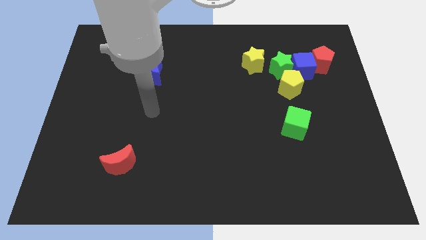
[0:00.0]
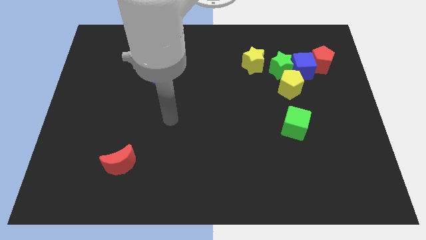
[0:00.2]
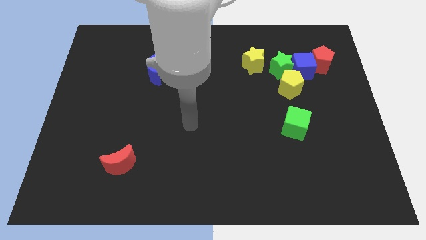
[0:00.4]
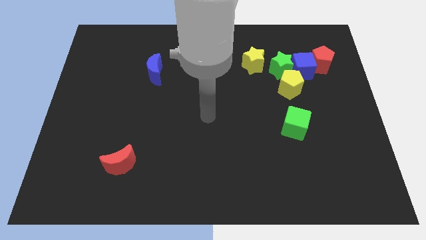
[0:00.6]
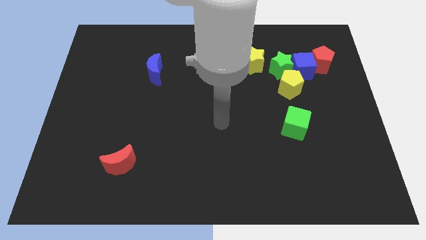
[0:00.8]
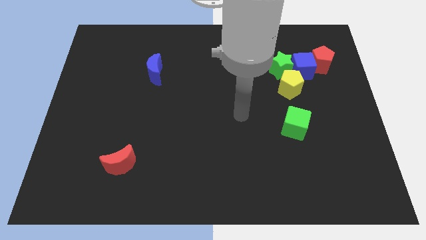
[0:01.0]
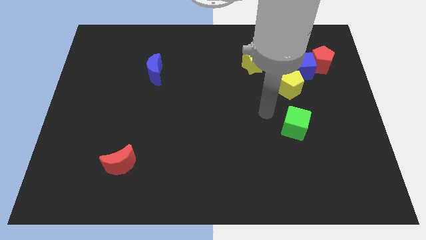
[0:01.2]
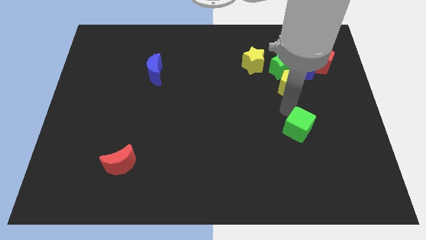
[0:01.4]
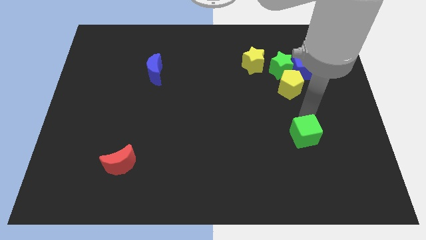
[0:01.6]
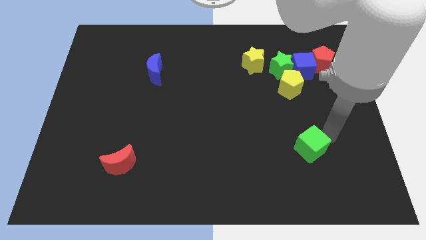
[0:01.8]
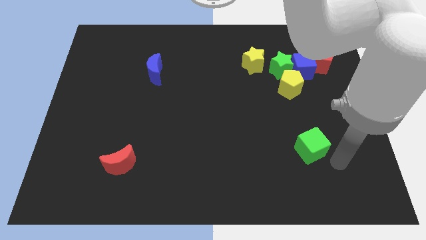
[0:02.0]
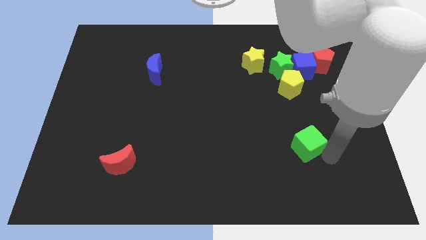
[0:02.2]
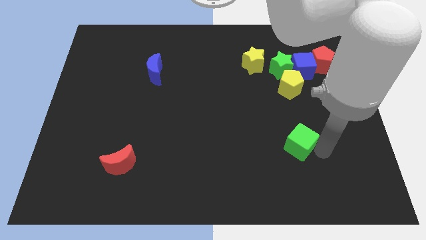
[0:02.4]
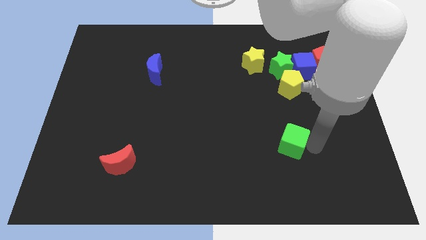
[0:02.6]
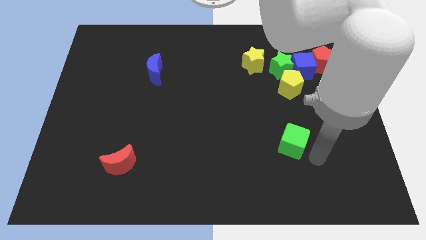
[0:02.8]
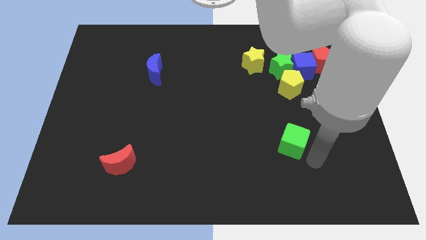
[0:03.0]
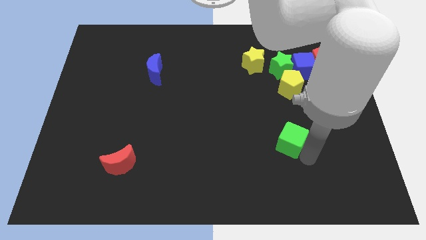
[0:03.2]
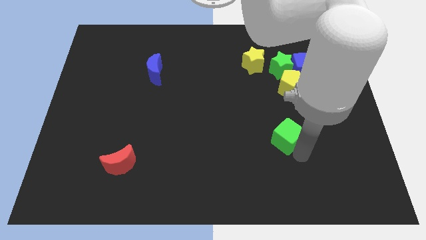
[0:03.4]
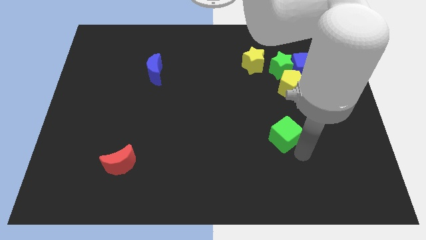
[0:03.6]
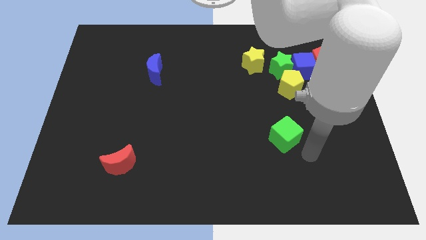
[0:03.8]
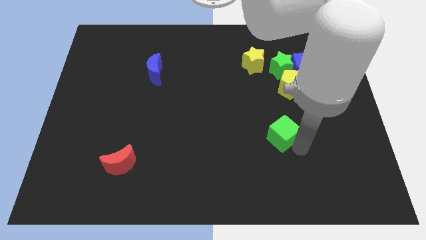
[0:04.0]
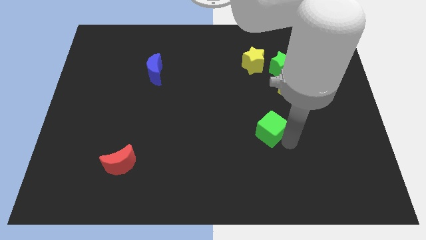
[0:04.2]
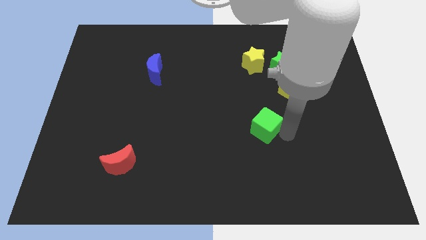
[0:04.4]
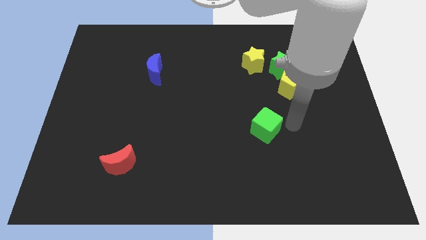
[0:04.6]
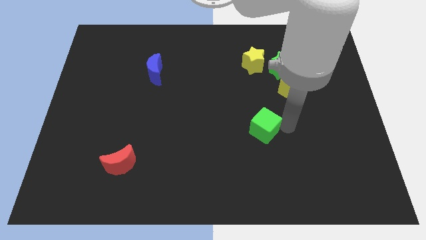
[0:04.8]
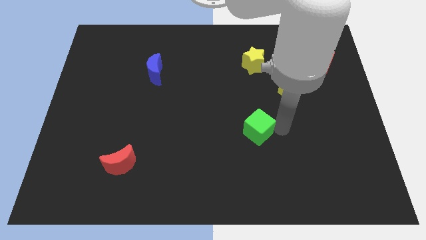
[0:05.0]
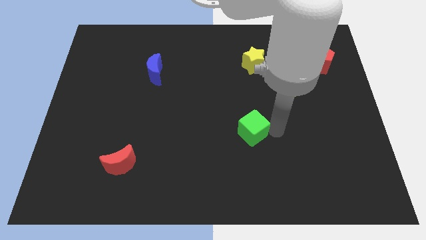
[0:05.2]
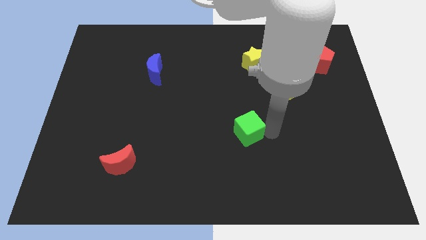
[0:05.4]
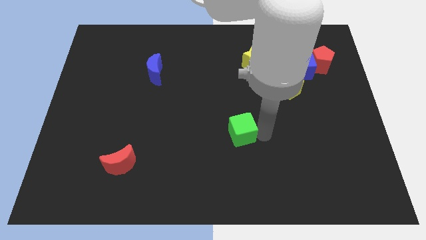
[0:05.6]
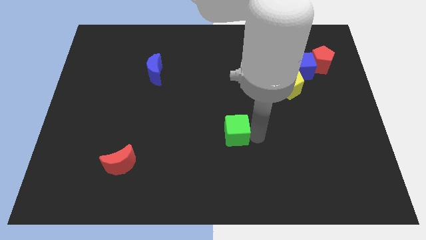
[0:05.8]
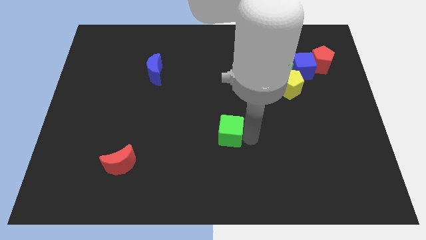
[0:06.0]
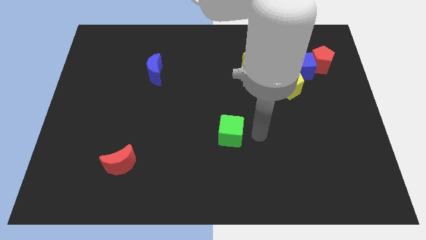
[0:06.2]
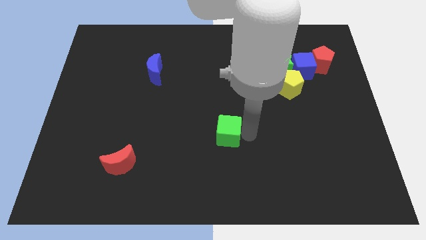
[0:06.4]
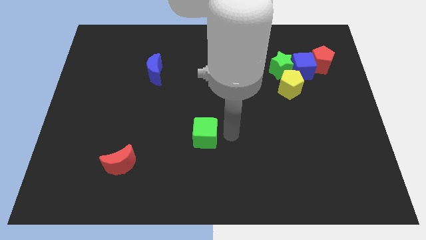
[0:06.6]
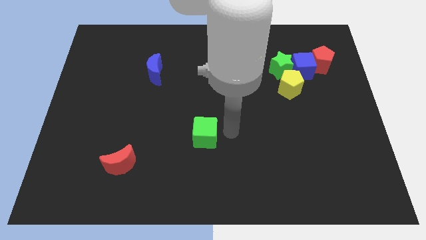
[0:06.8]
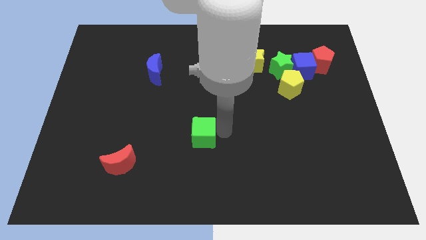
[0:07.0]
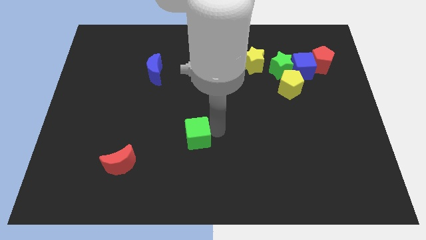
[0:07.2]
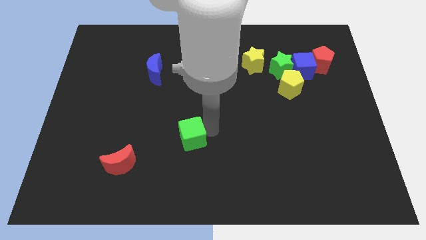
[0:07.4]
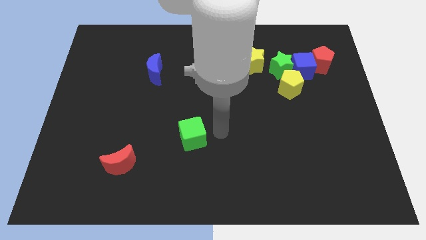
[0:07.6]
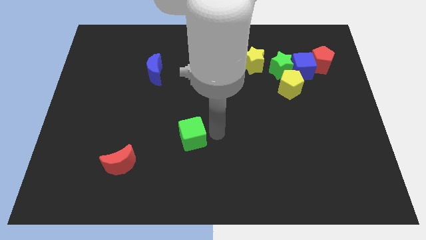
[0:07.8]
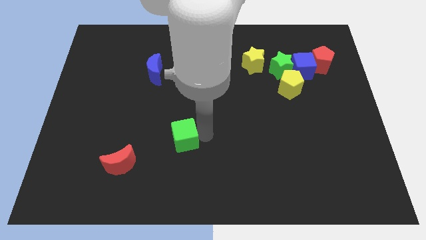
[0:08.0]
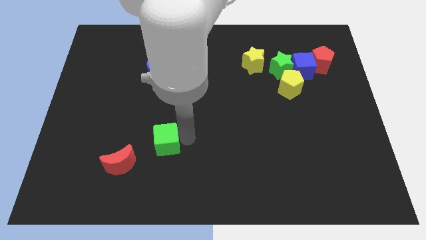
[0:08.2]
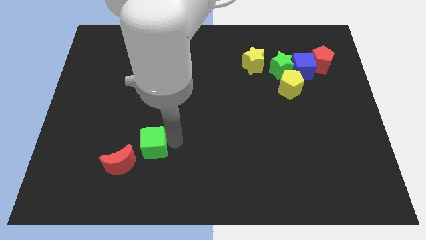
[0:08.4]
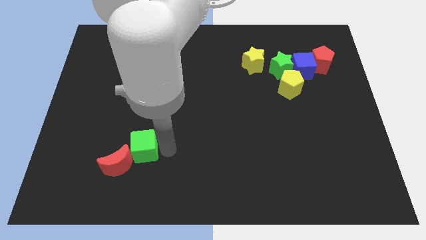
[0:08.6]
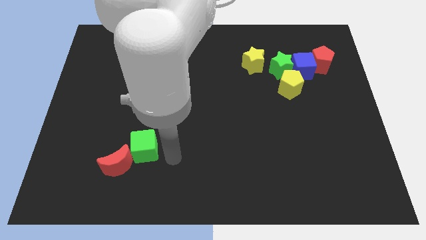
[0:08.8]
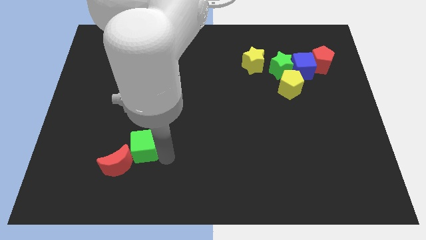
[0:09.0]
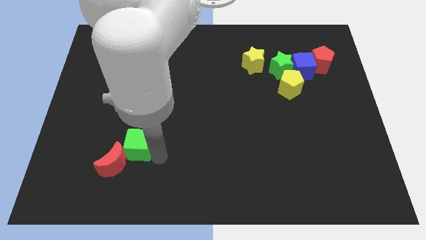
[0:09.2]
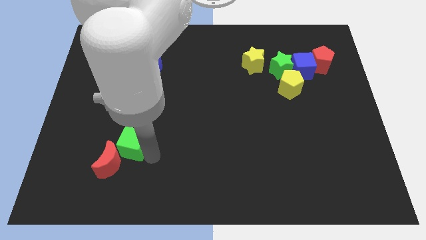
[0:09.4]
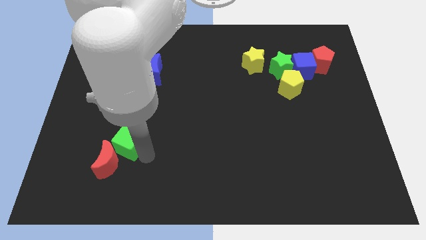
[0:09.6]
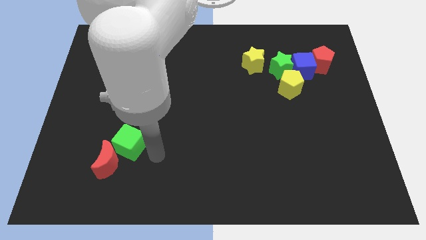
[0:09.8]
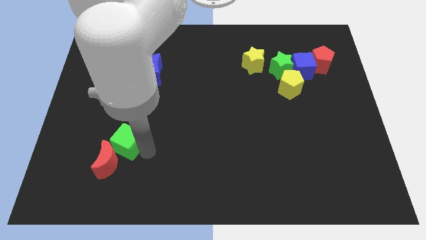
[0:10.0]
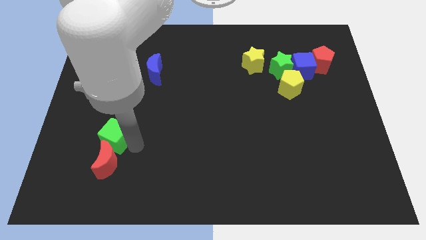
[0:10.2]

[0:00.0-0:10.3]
move the green cube diagonally up and to the left of the red moon

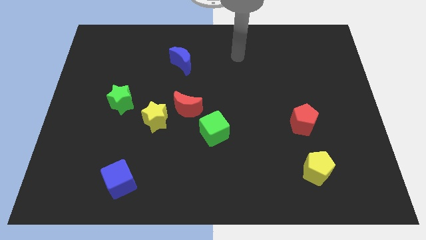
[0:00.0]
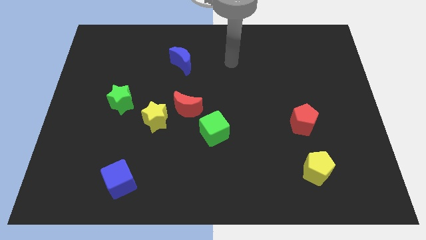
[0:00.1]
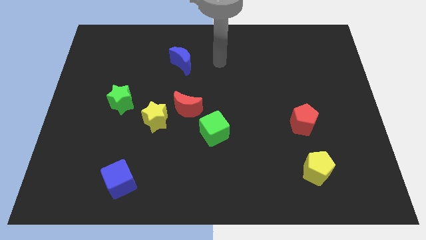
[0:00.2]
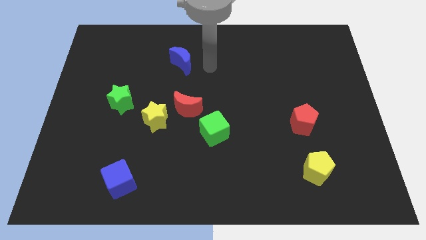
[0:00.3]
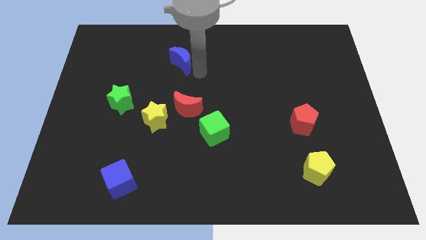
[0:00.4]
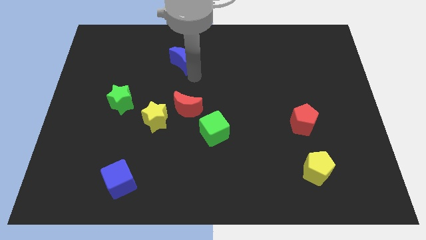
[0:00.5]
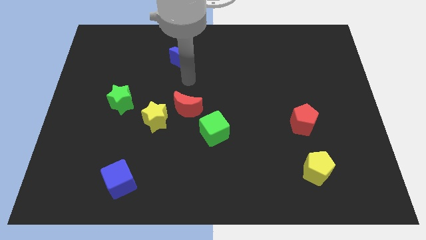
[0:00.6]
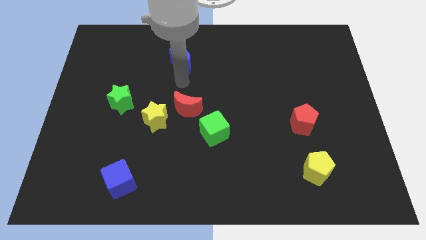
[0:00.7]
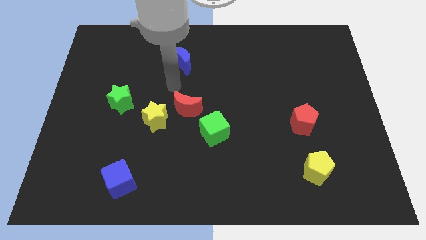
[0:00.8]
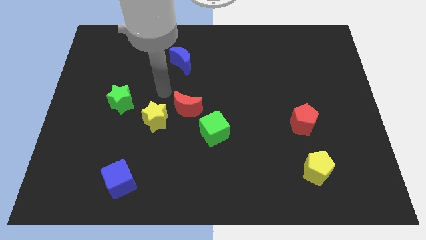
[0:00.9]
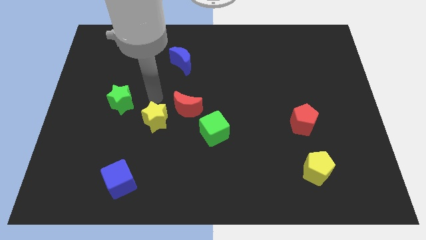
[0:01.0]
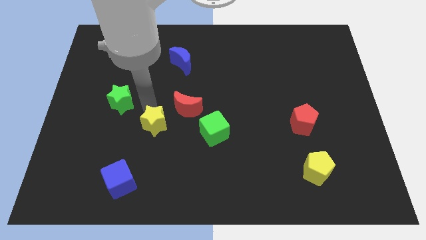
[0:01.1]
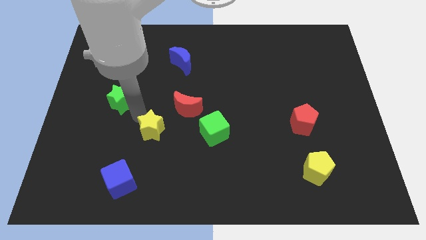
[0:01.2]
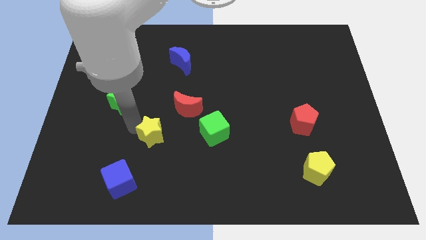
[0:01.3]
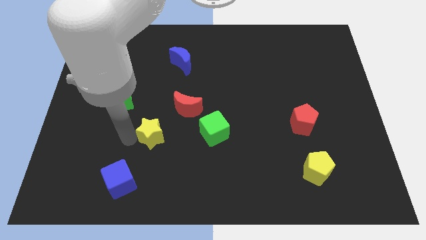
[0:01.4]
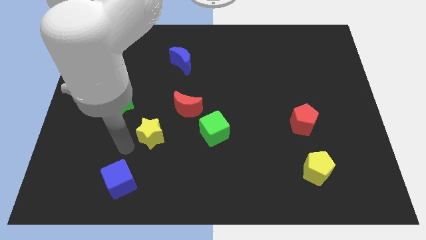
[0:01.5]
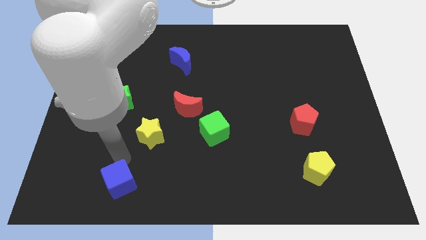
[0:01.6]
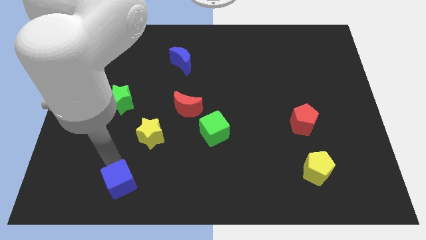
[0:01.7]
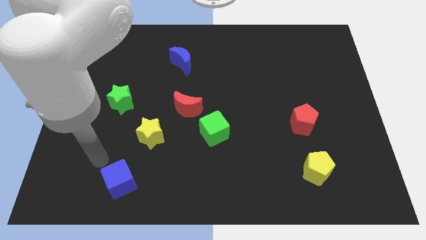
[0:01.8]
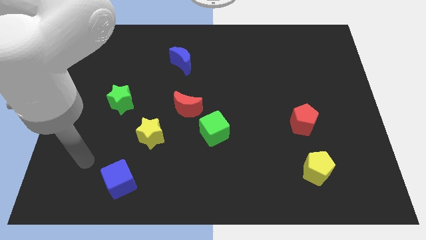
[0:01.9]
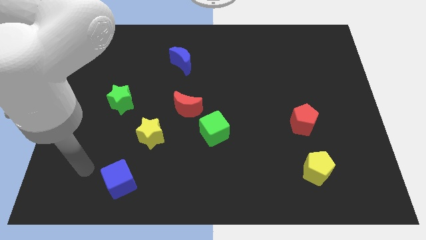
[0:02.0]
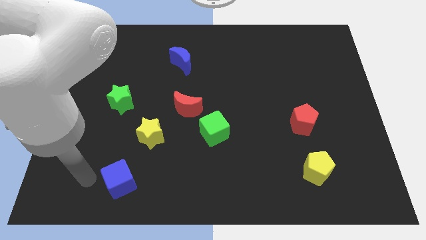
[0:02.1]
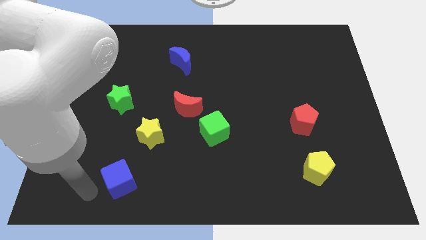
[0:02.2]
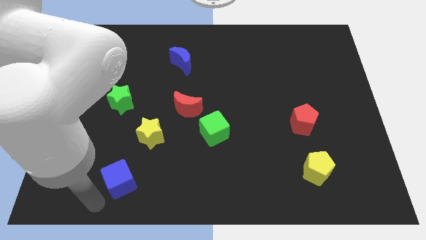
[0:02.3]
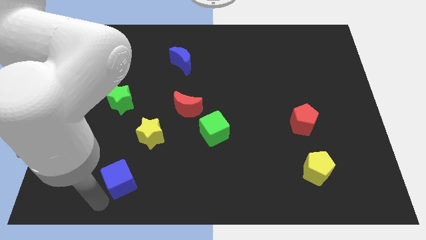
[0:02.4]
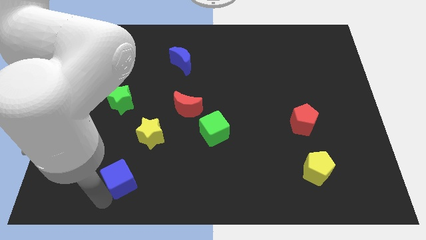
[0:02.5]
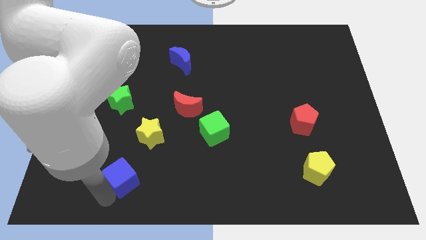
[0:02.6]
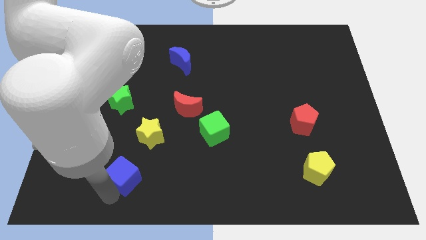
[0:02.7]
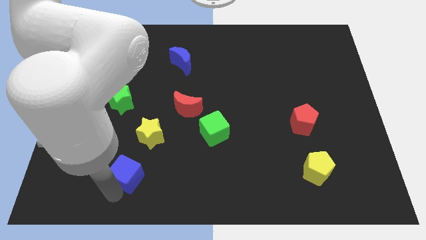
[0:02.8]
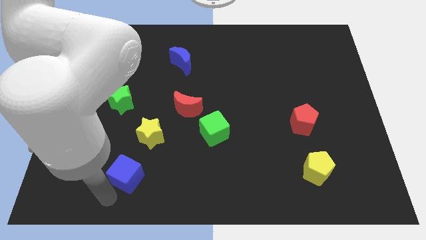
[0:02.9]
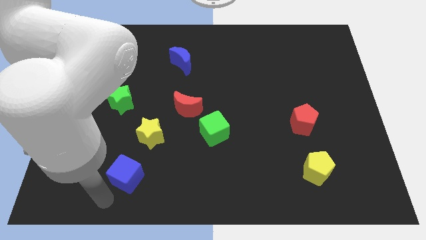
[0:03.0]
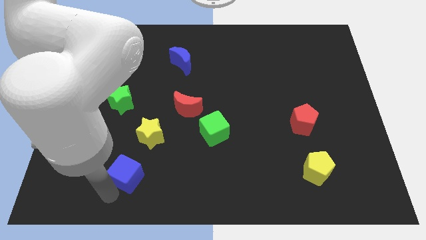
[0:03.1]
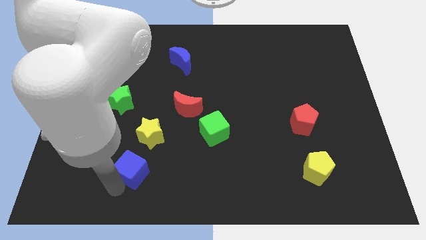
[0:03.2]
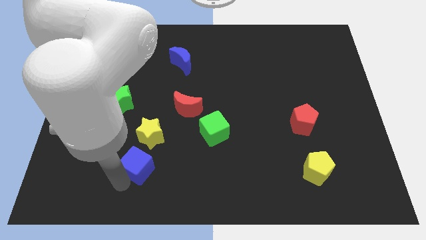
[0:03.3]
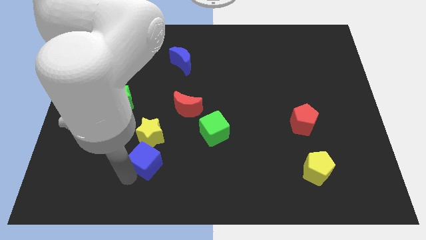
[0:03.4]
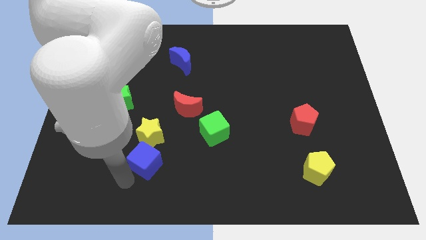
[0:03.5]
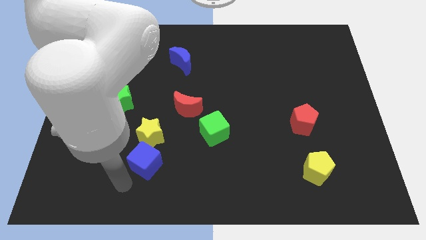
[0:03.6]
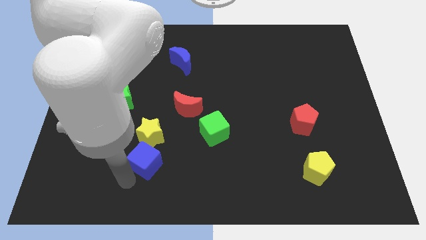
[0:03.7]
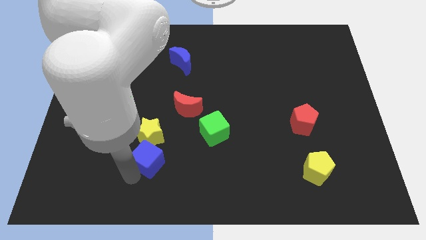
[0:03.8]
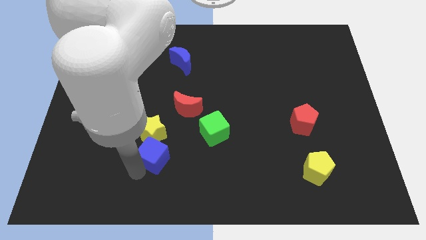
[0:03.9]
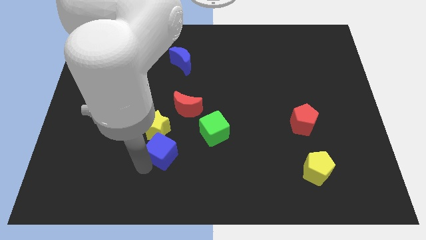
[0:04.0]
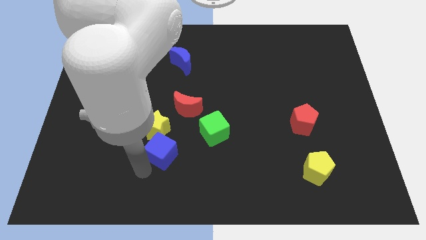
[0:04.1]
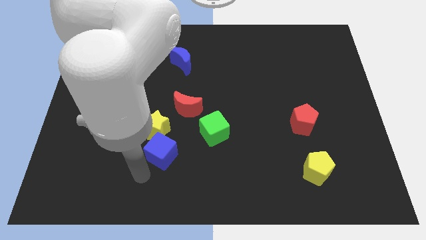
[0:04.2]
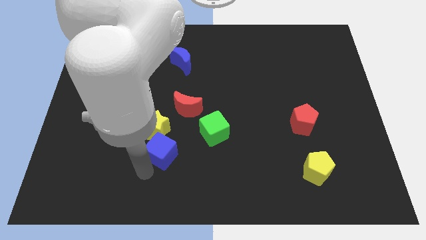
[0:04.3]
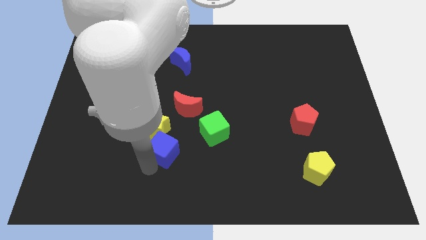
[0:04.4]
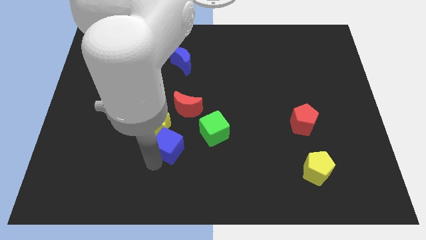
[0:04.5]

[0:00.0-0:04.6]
put the blue cube to the left side of the green cube
